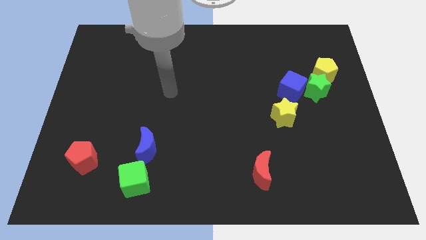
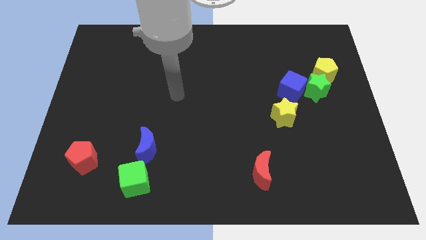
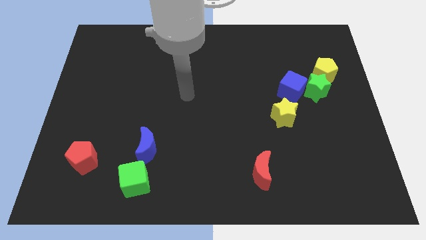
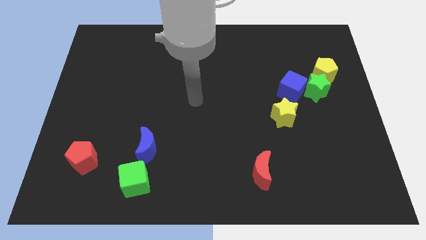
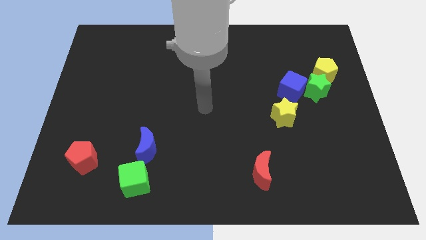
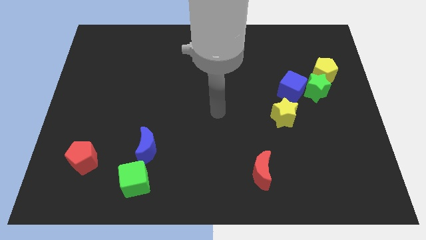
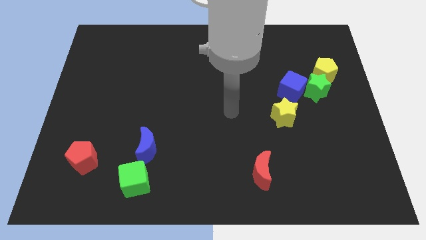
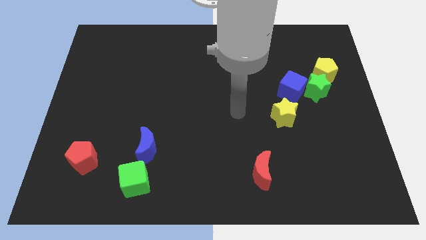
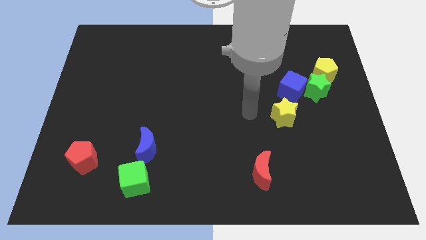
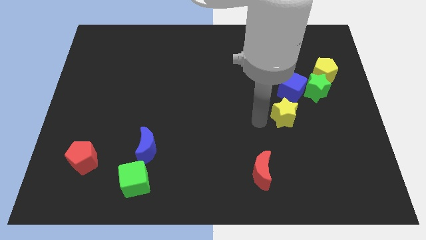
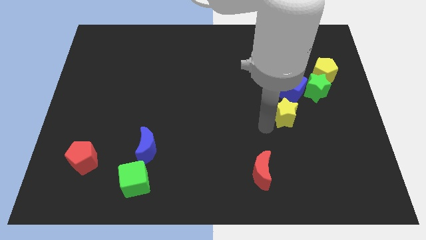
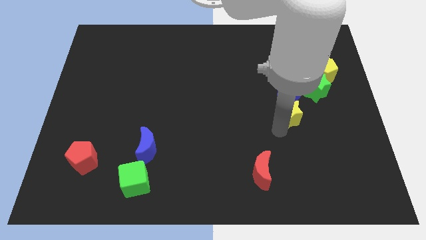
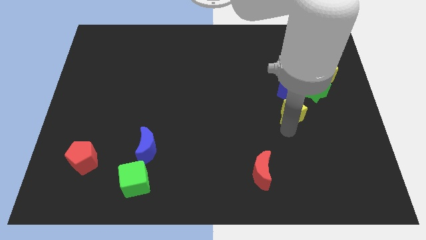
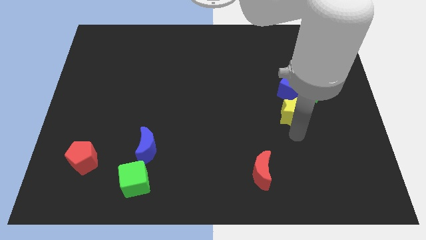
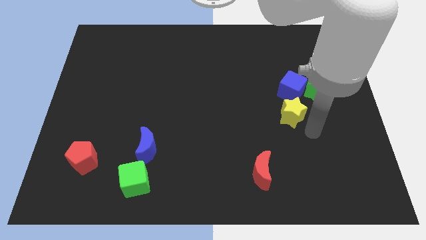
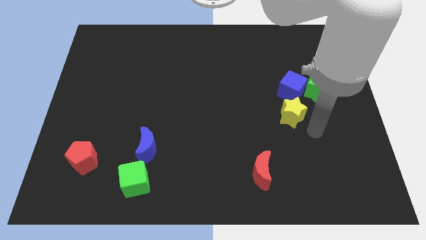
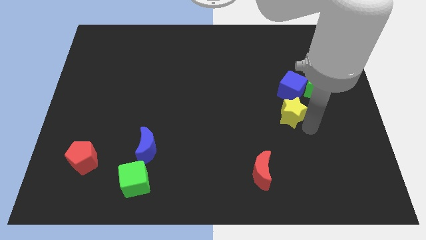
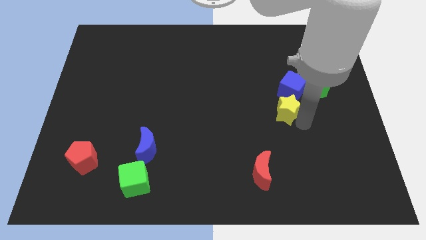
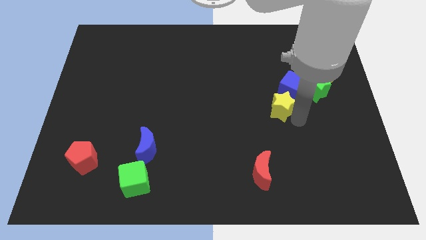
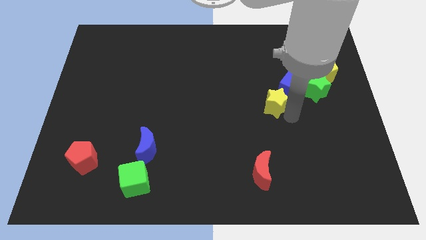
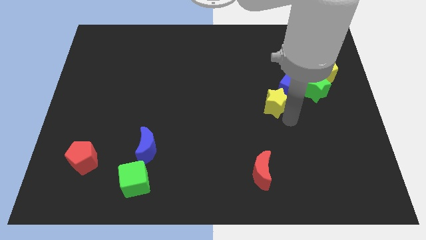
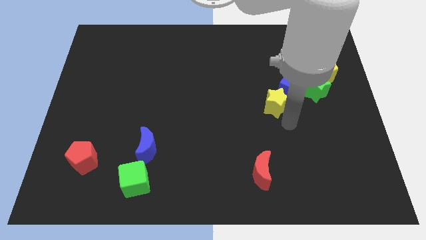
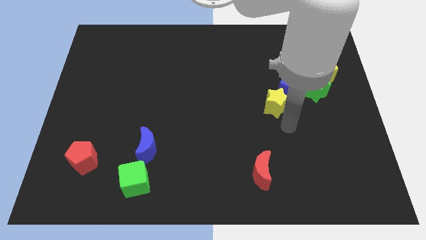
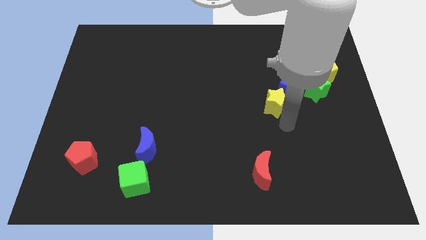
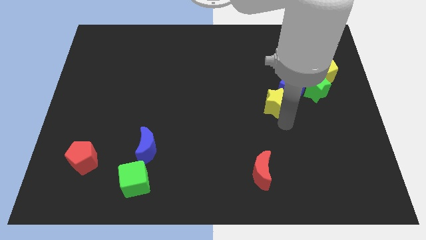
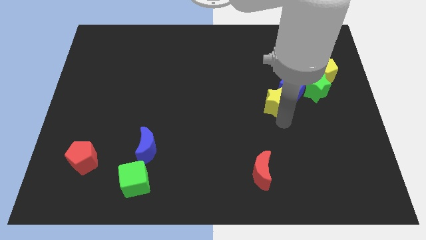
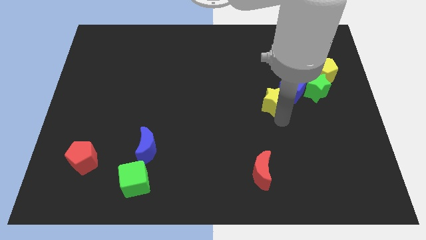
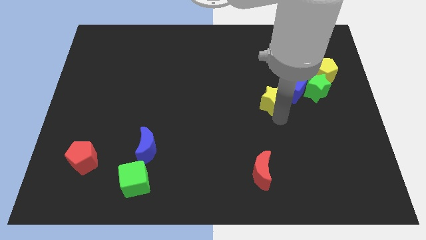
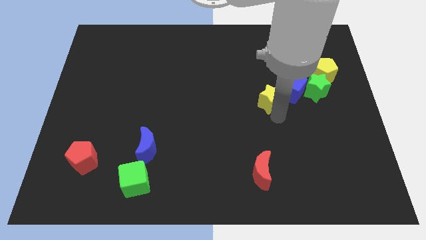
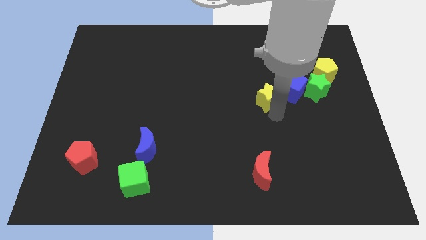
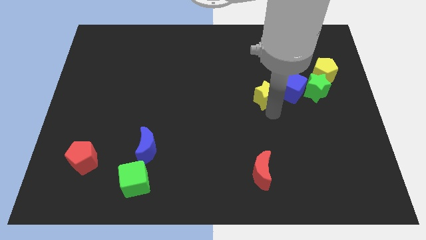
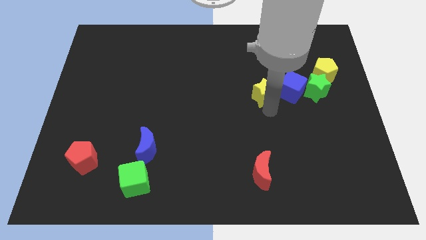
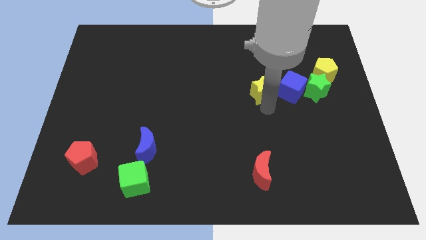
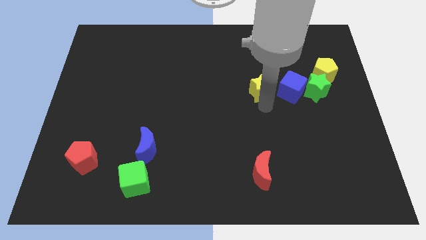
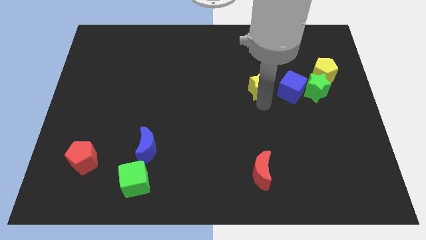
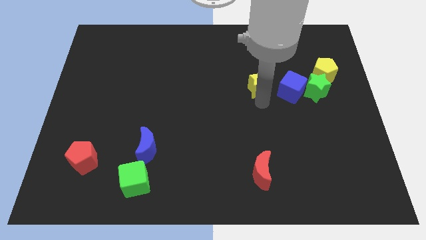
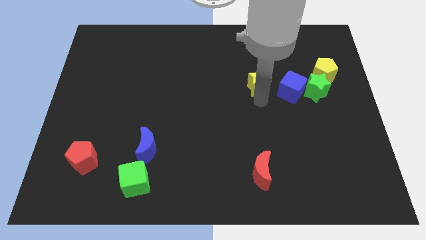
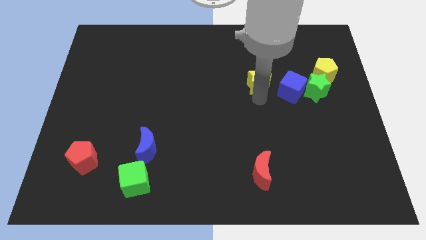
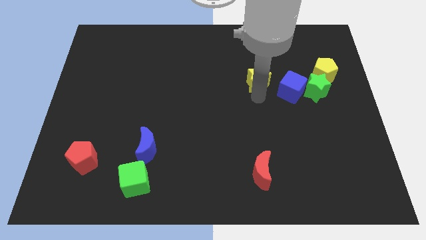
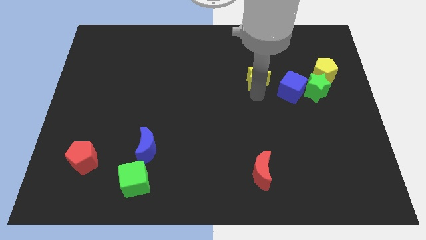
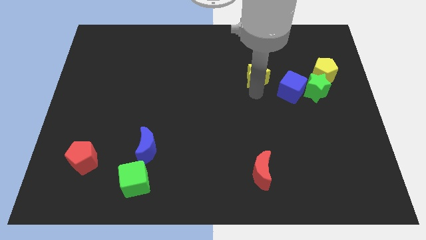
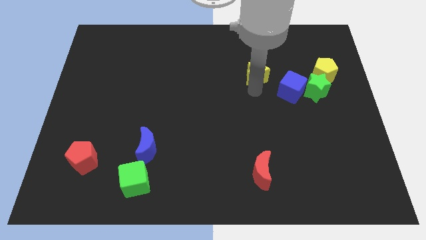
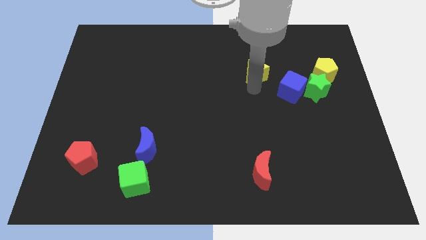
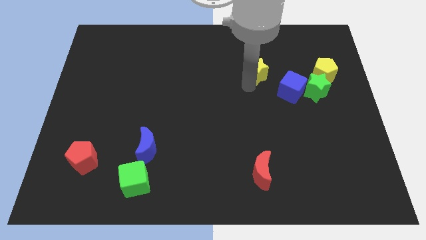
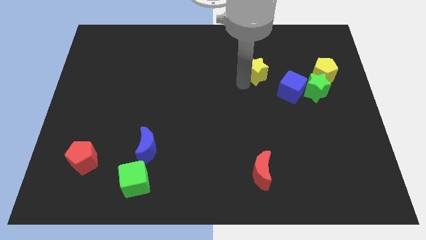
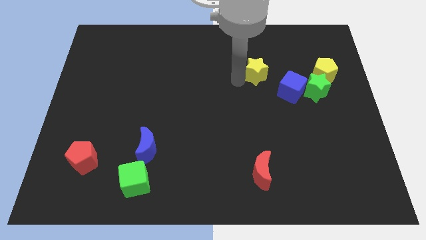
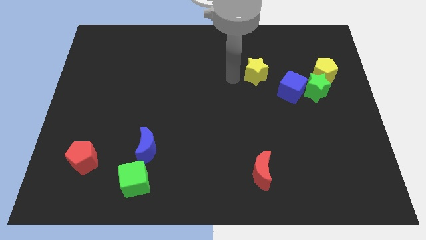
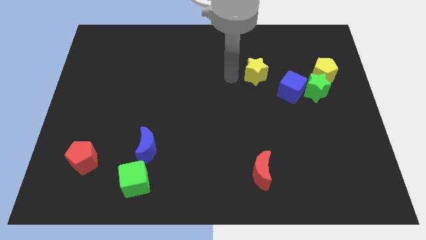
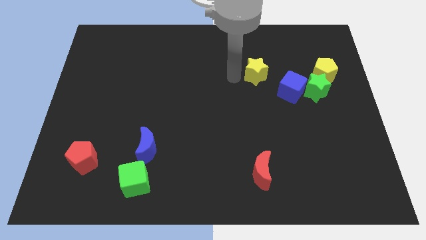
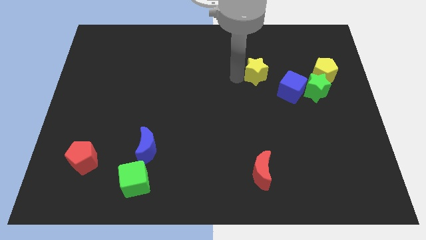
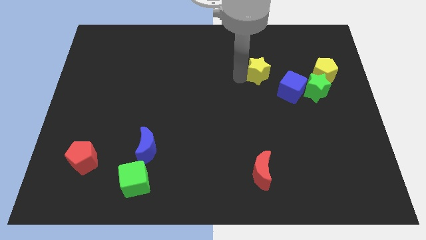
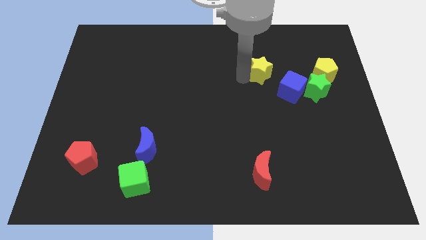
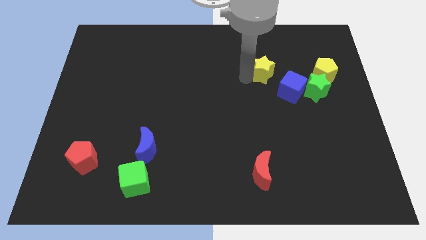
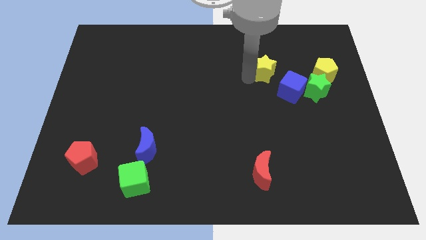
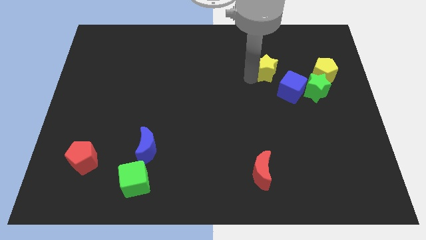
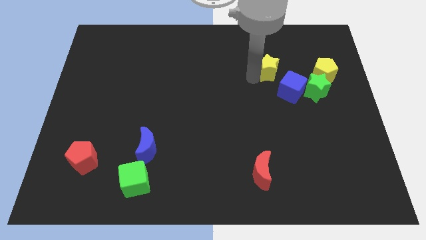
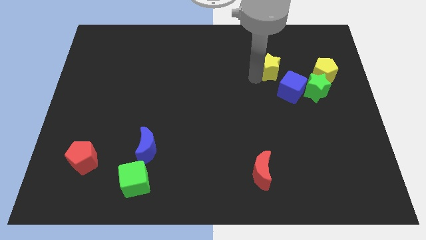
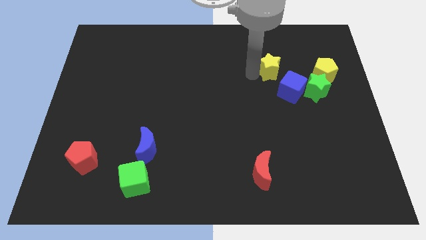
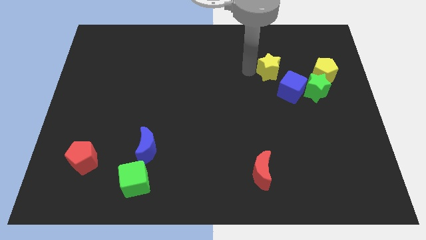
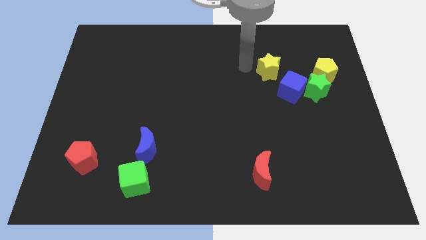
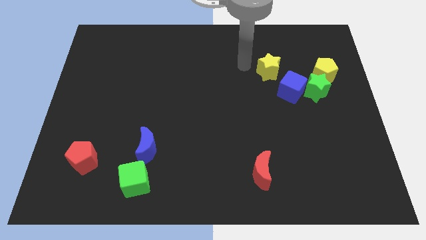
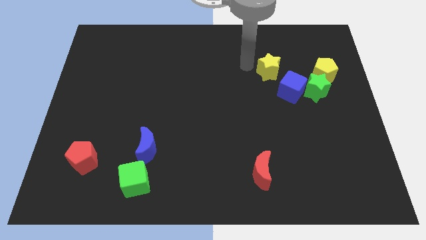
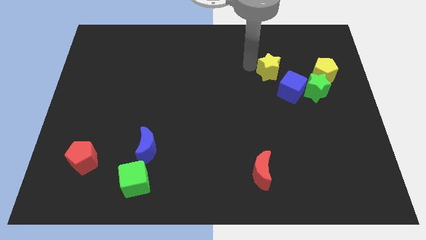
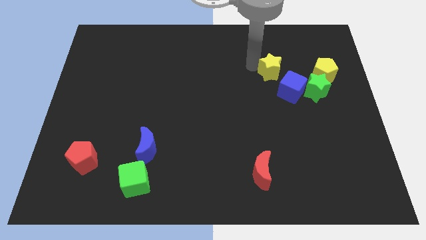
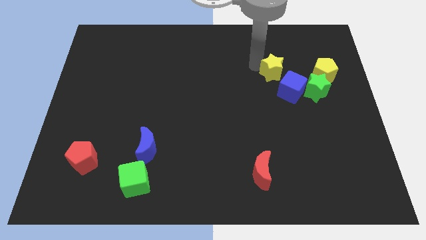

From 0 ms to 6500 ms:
put the yellow star to the top left side of the green star
